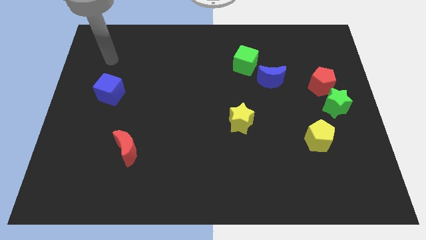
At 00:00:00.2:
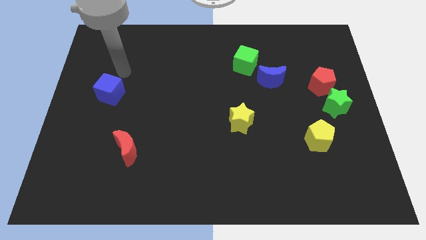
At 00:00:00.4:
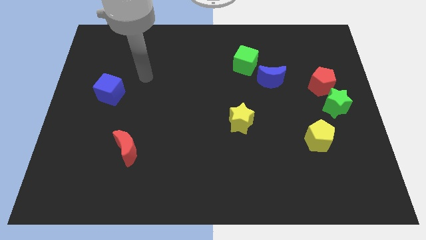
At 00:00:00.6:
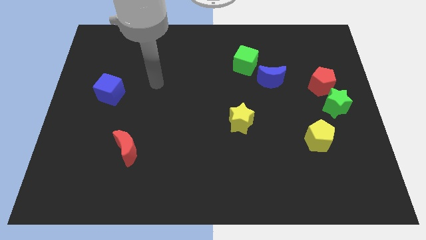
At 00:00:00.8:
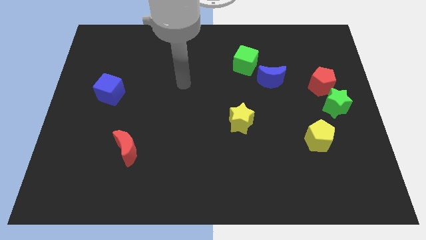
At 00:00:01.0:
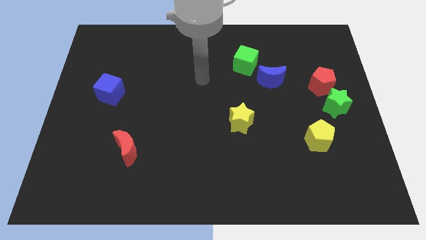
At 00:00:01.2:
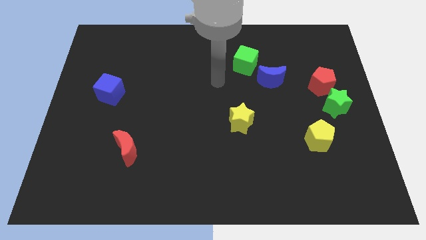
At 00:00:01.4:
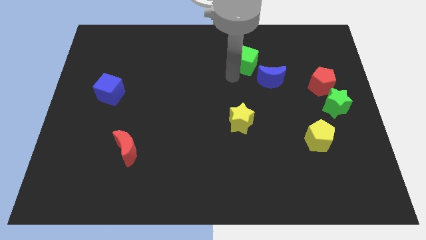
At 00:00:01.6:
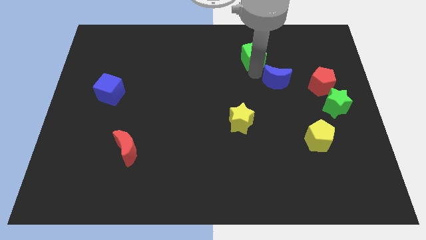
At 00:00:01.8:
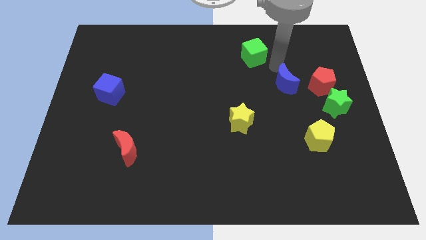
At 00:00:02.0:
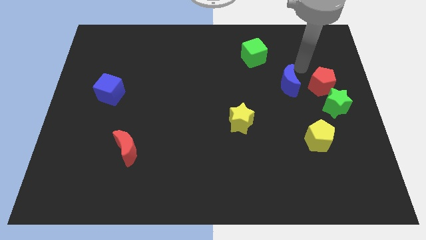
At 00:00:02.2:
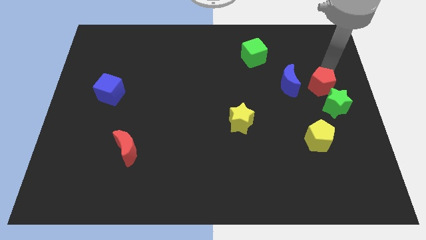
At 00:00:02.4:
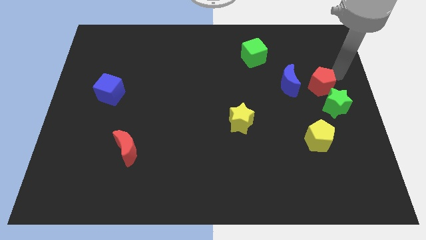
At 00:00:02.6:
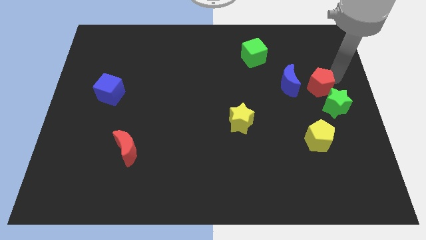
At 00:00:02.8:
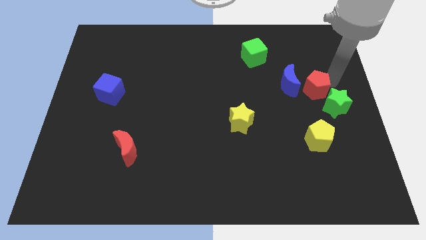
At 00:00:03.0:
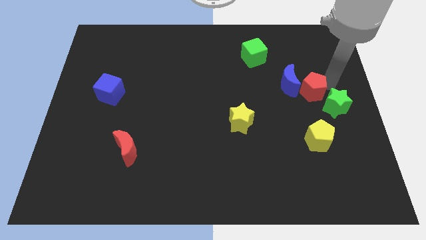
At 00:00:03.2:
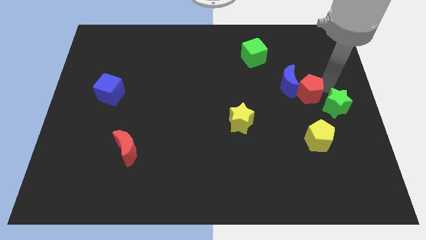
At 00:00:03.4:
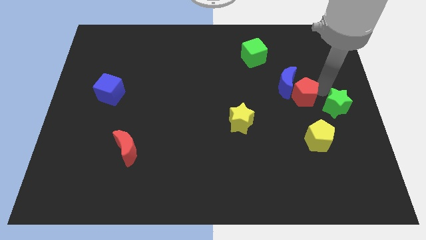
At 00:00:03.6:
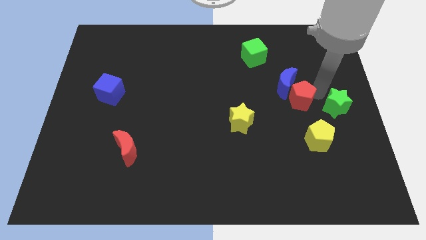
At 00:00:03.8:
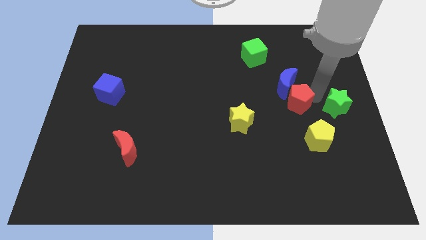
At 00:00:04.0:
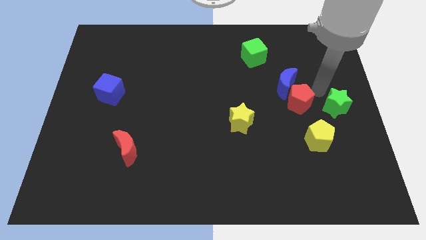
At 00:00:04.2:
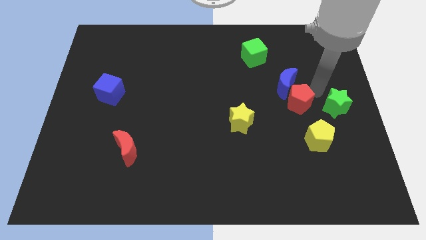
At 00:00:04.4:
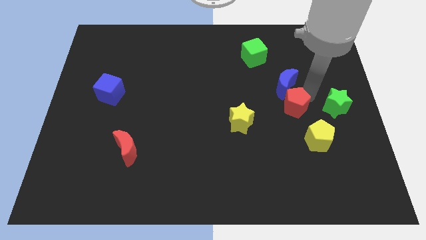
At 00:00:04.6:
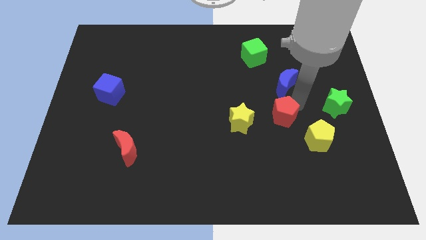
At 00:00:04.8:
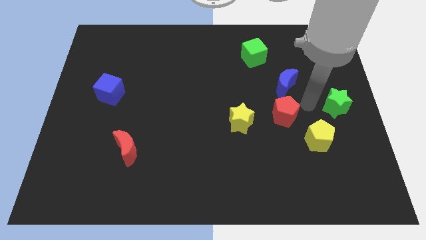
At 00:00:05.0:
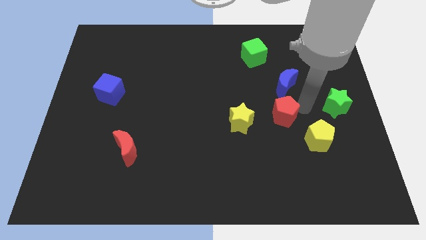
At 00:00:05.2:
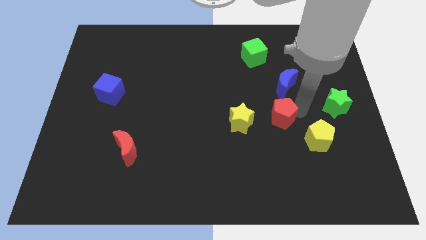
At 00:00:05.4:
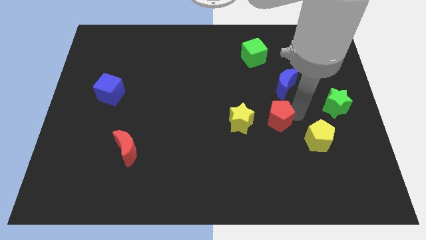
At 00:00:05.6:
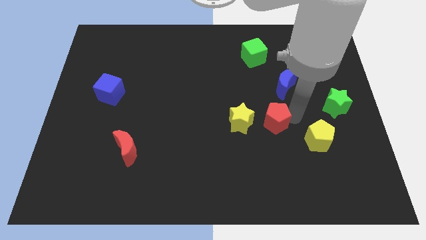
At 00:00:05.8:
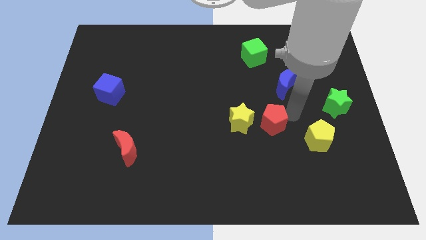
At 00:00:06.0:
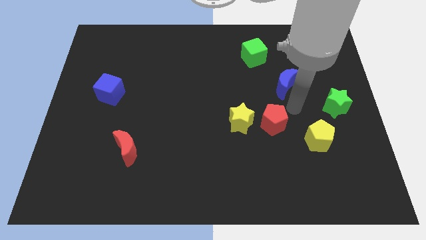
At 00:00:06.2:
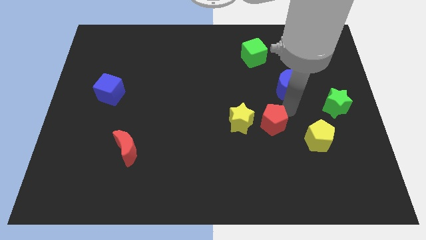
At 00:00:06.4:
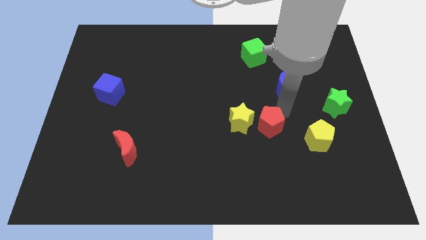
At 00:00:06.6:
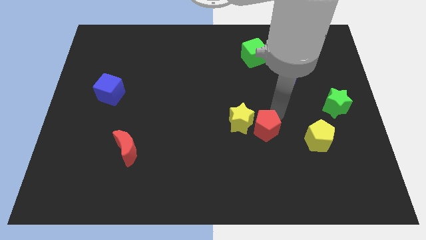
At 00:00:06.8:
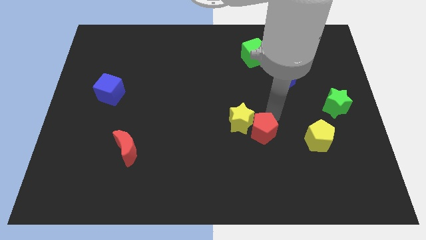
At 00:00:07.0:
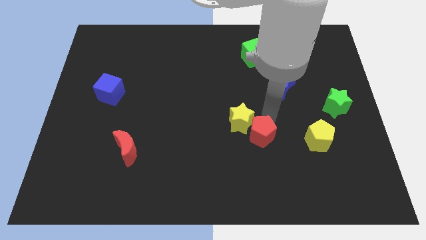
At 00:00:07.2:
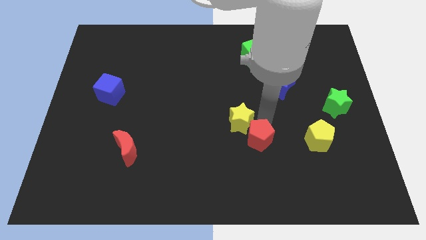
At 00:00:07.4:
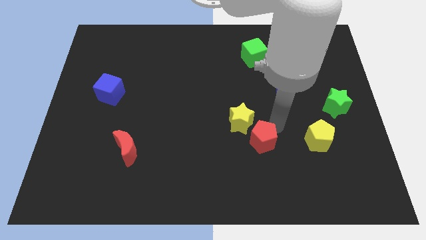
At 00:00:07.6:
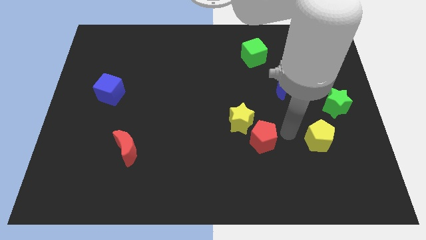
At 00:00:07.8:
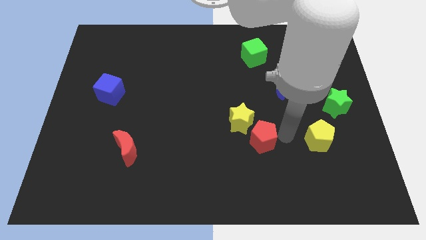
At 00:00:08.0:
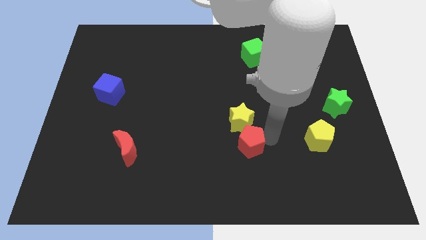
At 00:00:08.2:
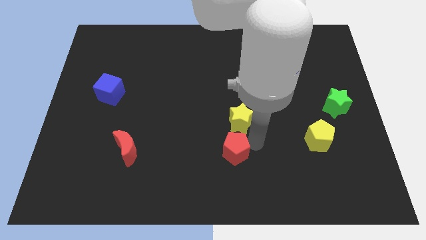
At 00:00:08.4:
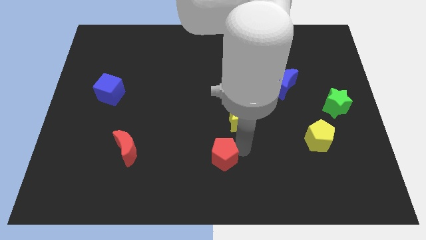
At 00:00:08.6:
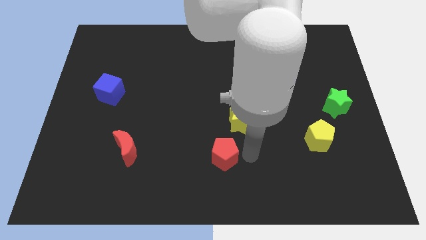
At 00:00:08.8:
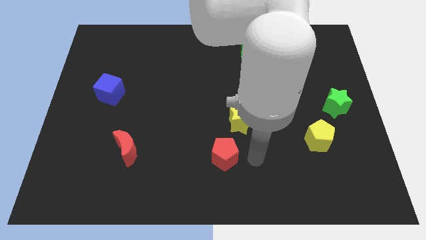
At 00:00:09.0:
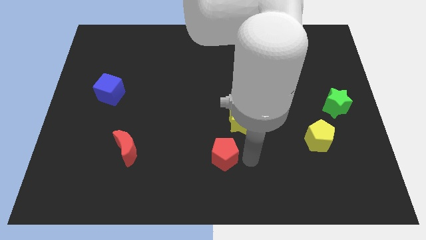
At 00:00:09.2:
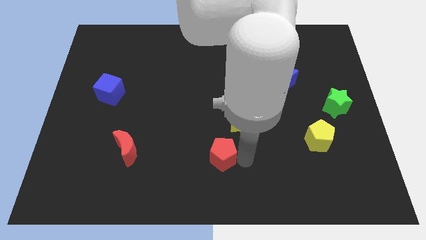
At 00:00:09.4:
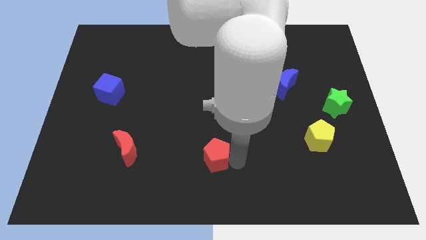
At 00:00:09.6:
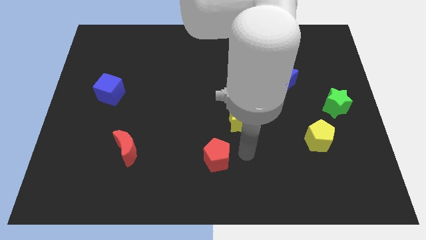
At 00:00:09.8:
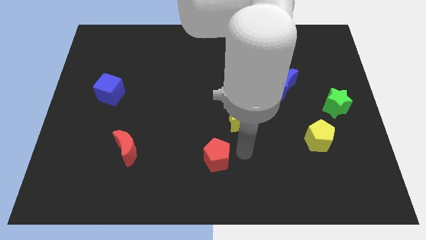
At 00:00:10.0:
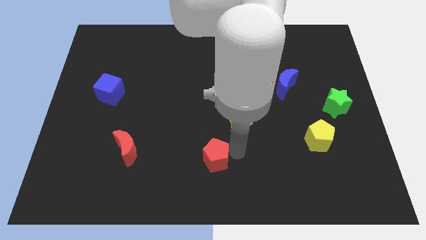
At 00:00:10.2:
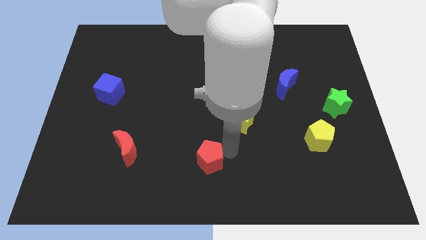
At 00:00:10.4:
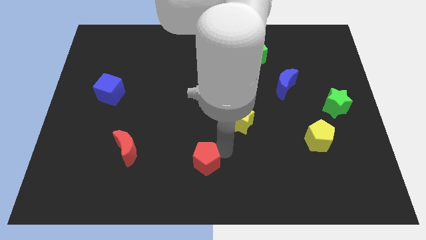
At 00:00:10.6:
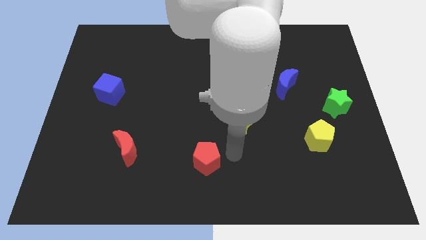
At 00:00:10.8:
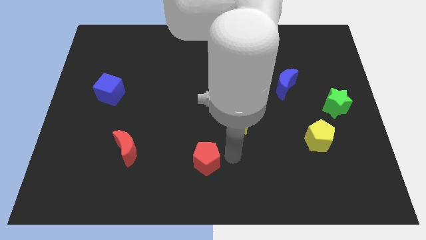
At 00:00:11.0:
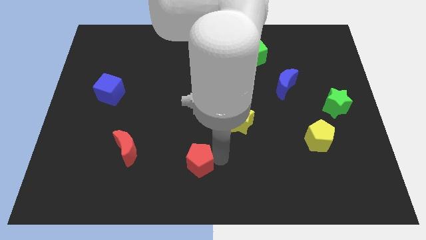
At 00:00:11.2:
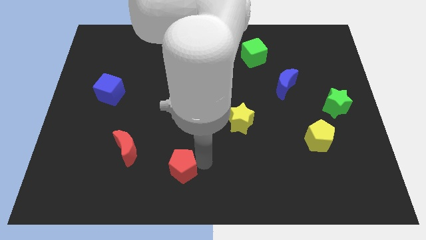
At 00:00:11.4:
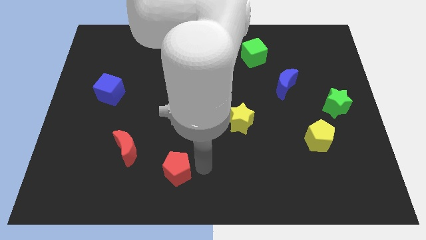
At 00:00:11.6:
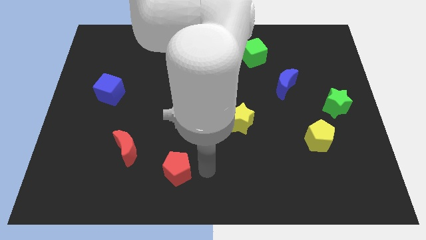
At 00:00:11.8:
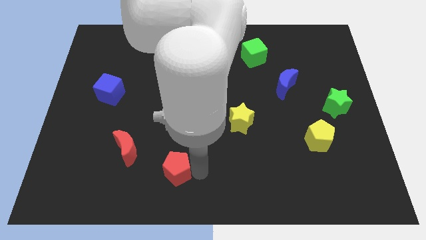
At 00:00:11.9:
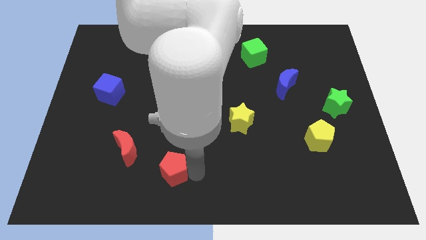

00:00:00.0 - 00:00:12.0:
push the red pentagon diagonally down and to the right of the red moon
